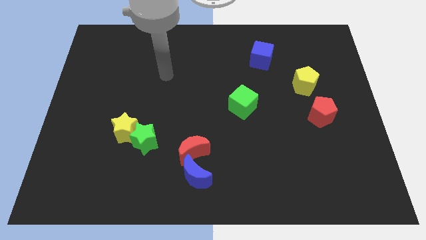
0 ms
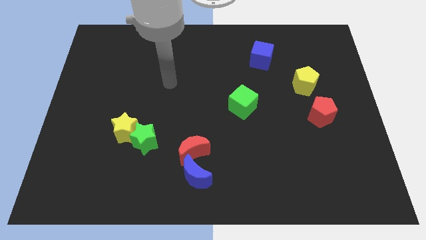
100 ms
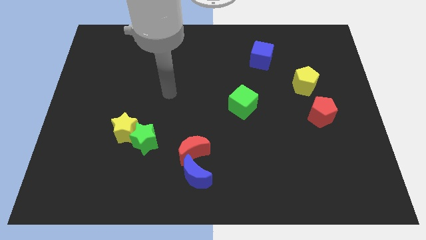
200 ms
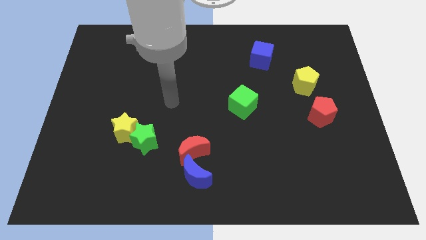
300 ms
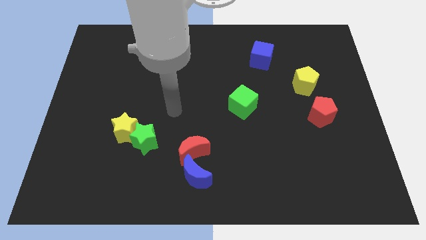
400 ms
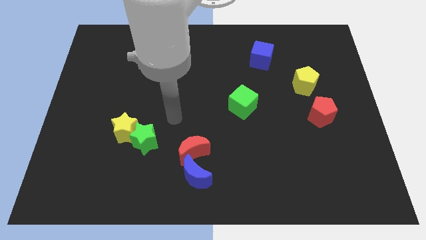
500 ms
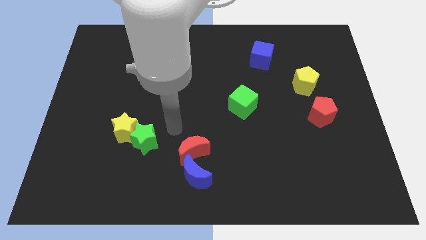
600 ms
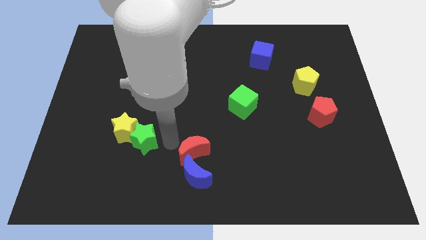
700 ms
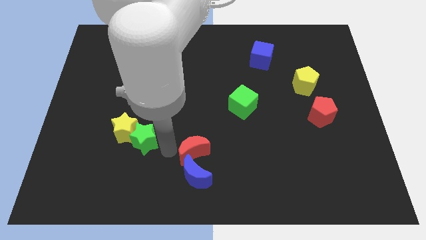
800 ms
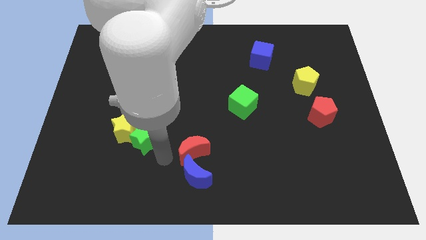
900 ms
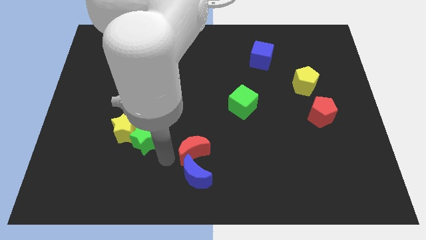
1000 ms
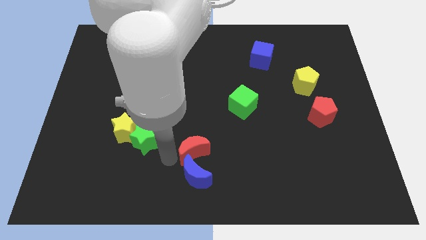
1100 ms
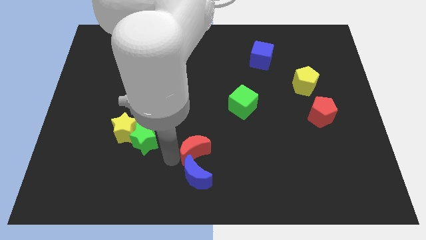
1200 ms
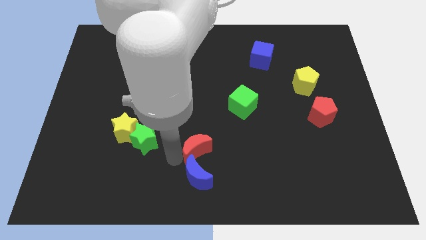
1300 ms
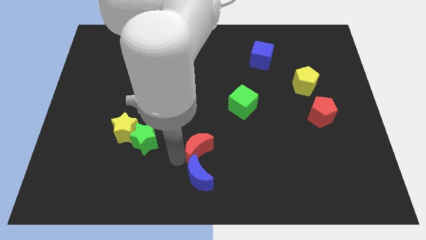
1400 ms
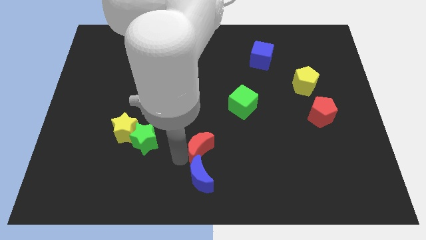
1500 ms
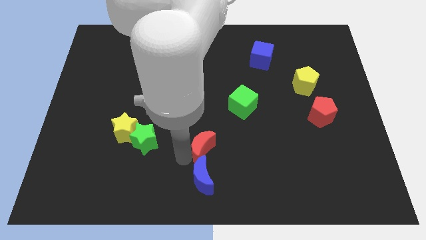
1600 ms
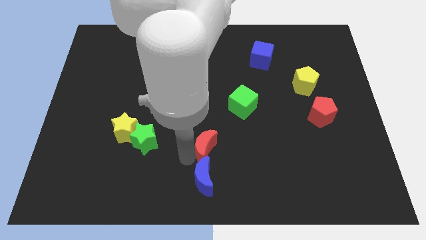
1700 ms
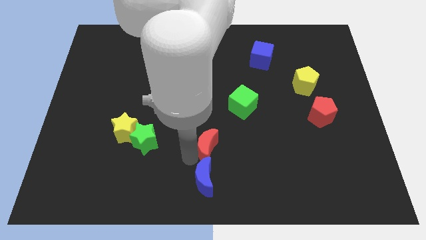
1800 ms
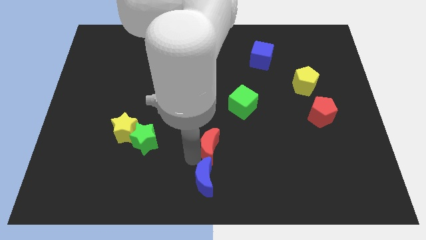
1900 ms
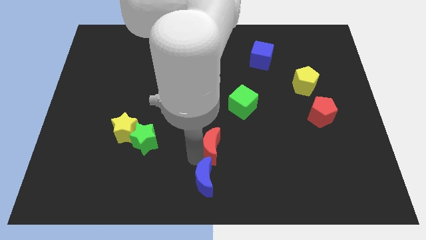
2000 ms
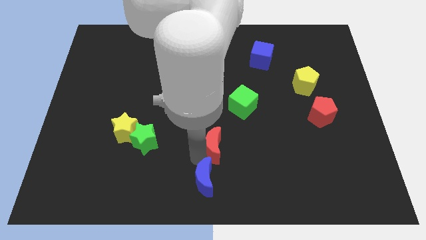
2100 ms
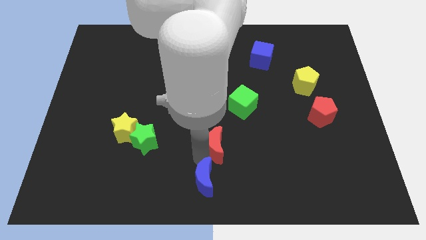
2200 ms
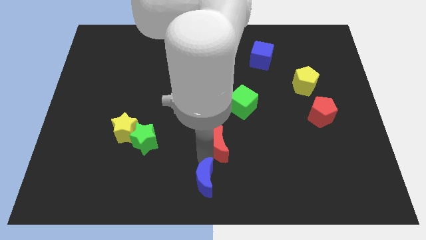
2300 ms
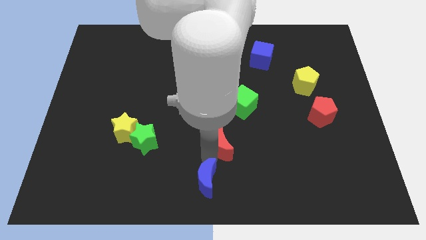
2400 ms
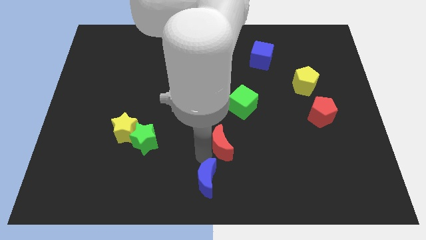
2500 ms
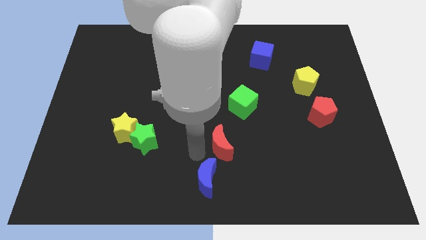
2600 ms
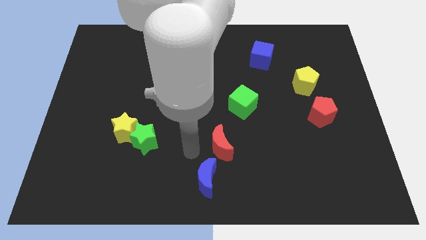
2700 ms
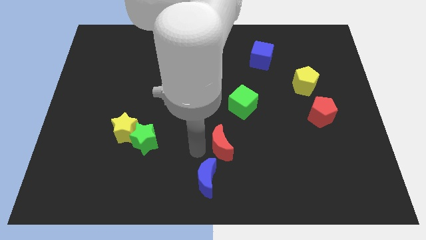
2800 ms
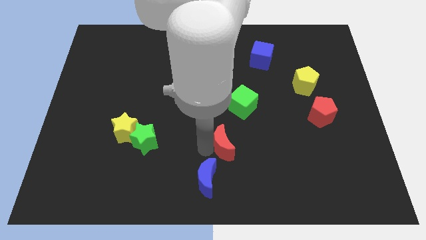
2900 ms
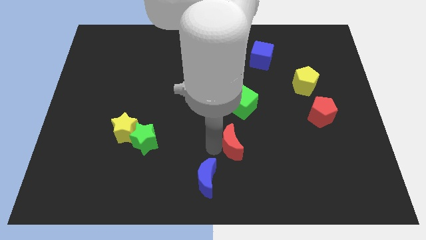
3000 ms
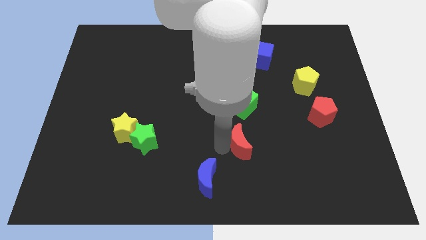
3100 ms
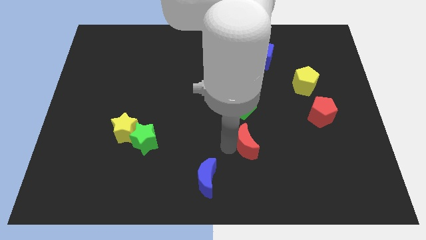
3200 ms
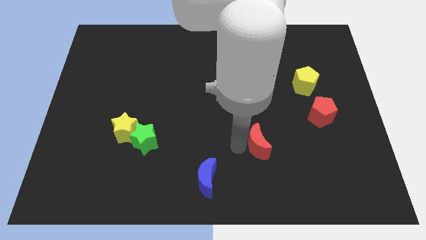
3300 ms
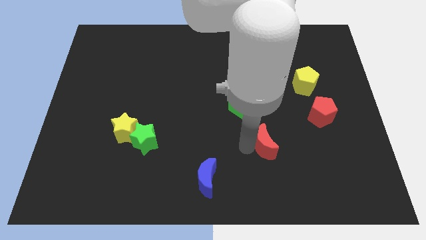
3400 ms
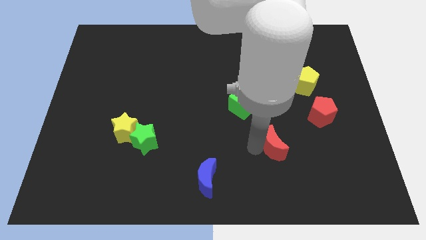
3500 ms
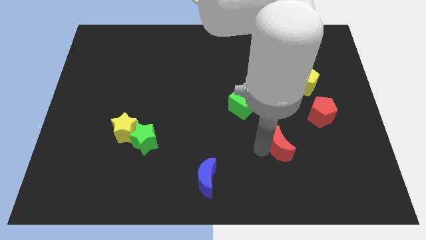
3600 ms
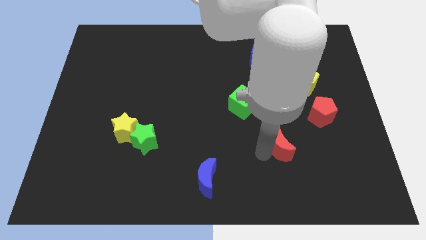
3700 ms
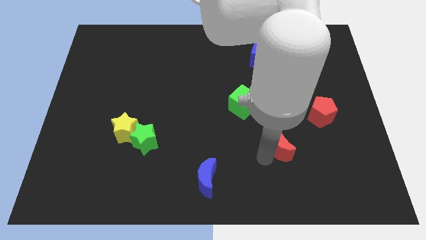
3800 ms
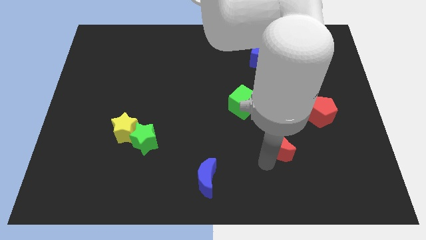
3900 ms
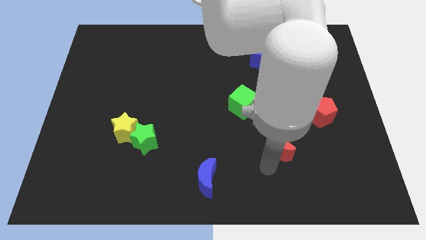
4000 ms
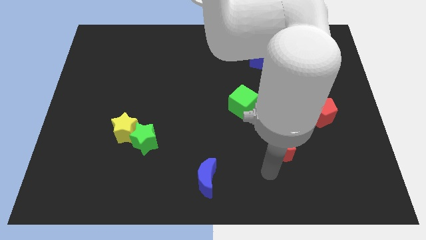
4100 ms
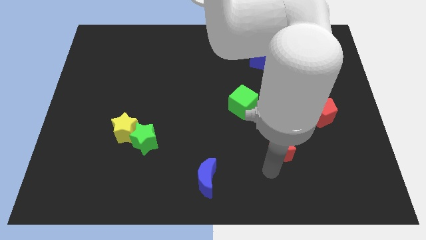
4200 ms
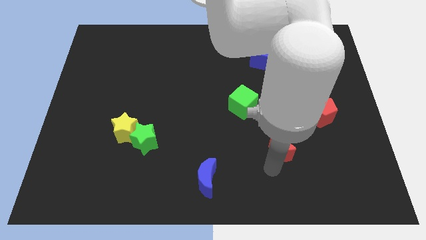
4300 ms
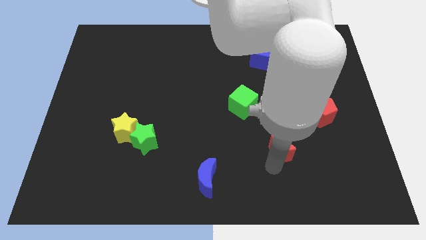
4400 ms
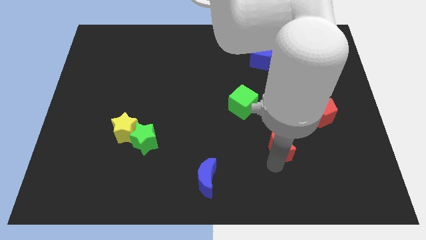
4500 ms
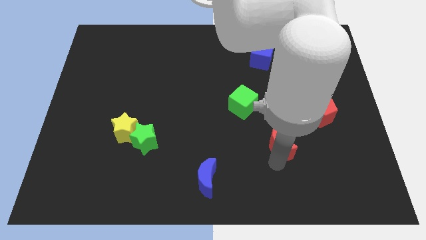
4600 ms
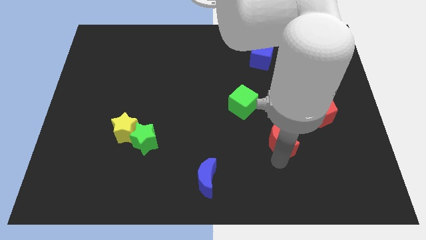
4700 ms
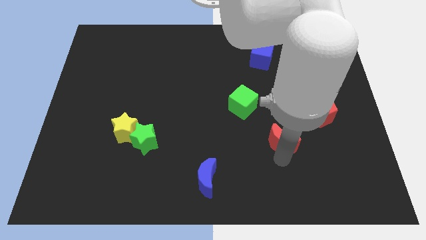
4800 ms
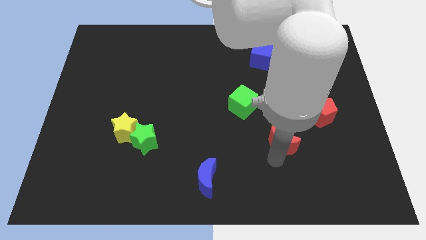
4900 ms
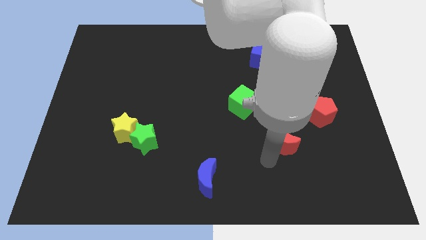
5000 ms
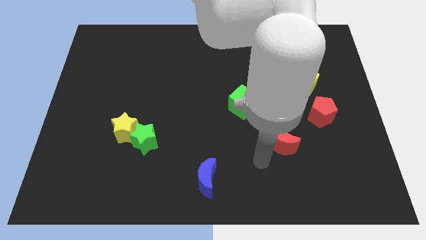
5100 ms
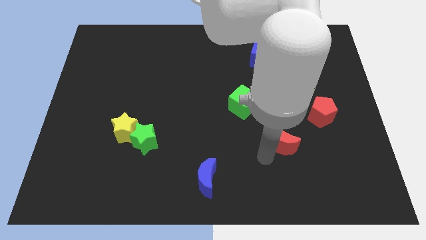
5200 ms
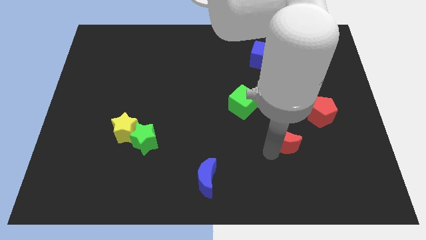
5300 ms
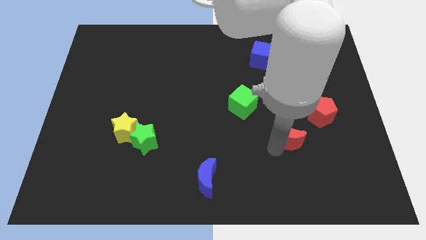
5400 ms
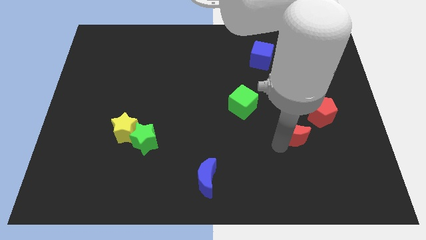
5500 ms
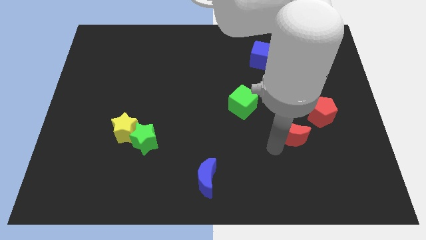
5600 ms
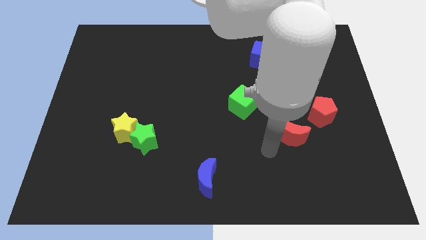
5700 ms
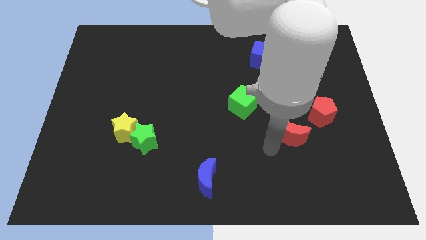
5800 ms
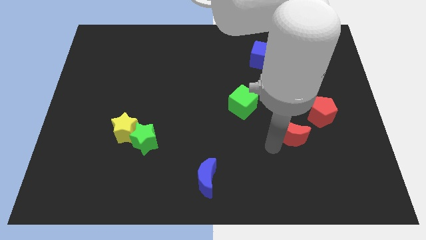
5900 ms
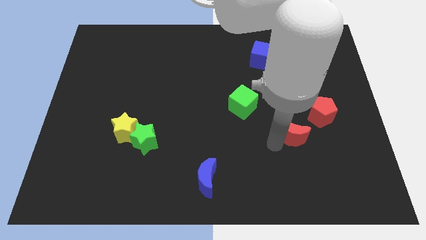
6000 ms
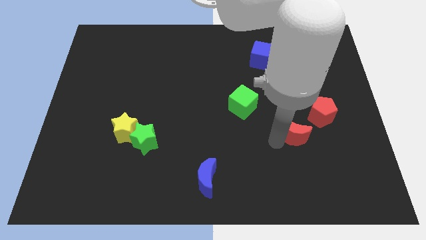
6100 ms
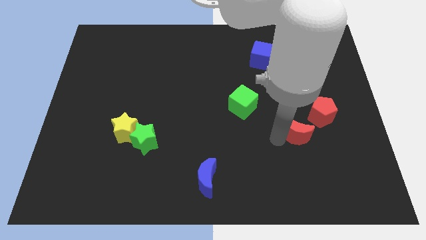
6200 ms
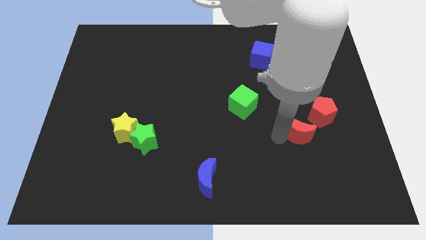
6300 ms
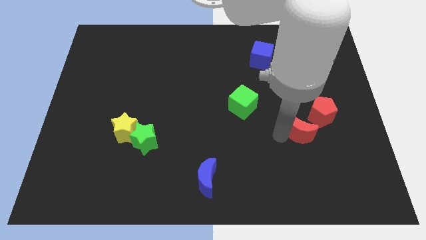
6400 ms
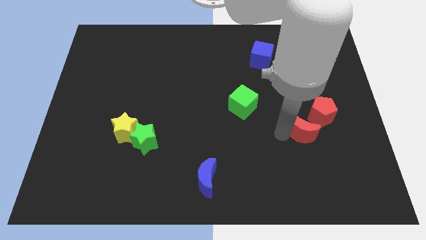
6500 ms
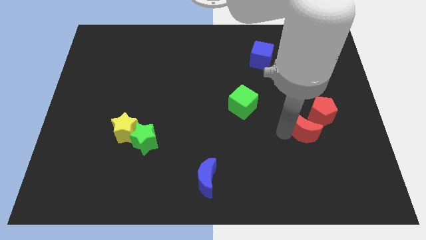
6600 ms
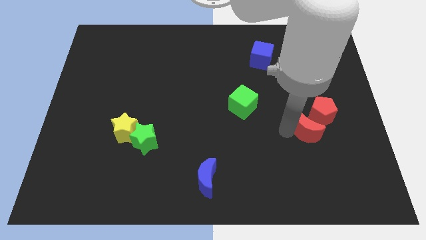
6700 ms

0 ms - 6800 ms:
move the red moon next to the red pentagon

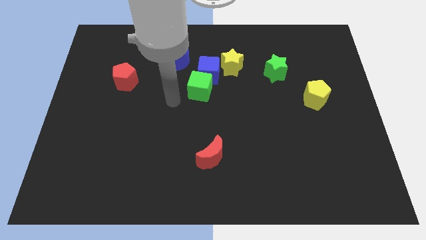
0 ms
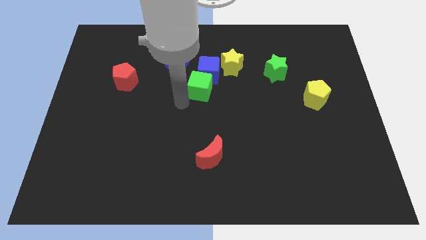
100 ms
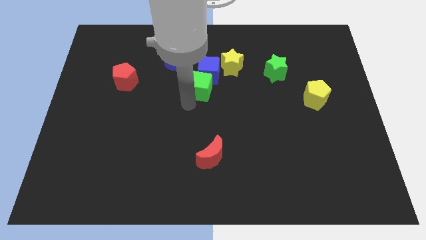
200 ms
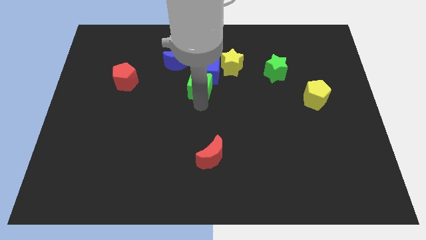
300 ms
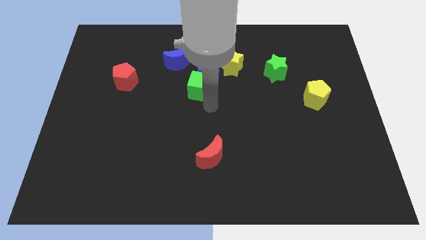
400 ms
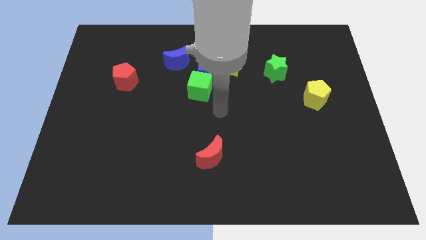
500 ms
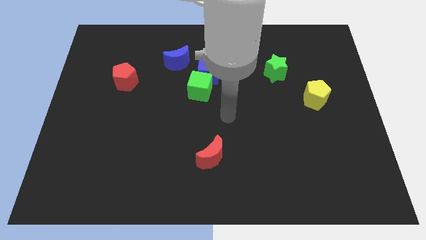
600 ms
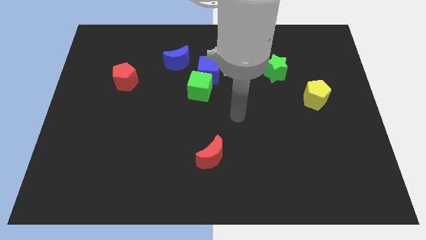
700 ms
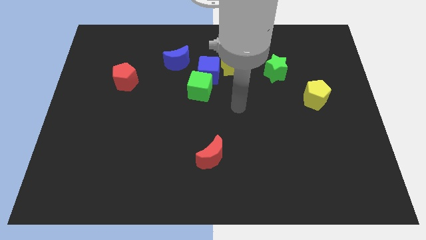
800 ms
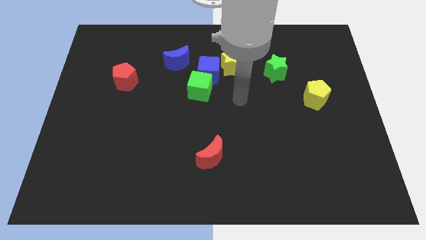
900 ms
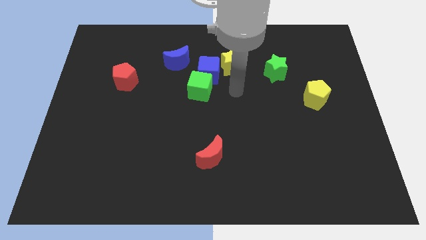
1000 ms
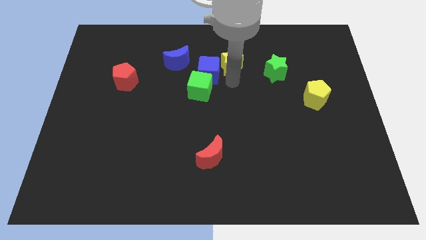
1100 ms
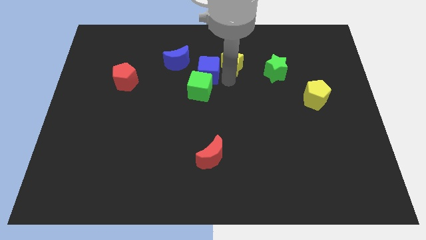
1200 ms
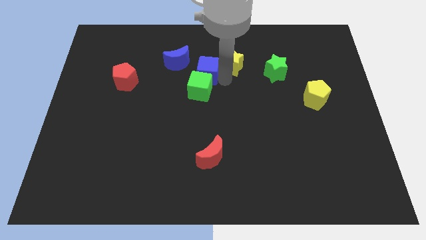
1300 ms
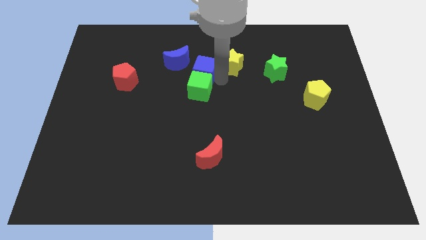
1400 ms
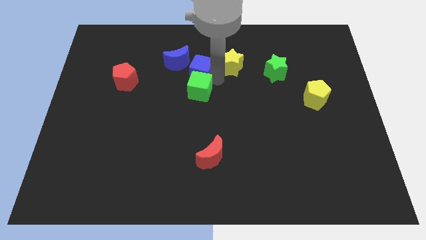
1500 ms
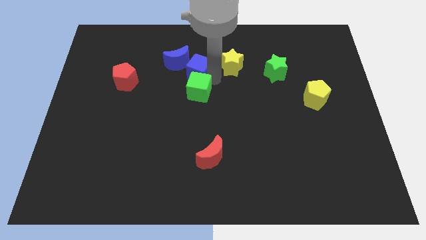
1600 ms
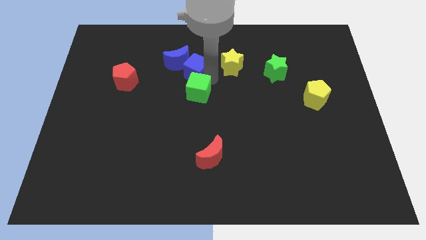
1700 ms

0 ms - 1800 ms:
move the blue cube towards the blue moon
